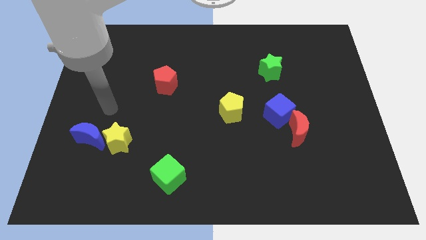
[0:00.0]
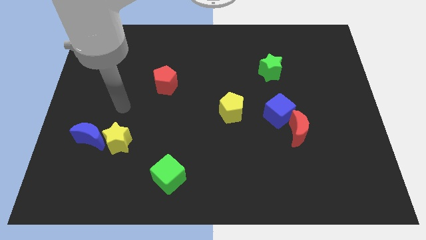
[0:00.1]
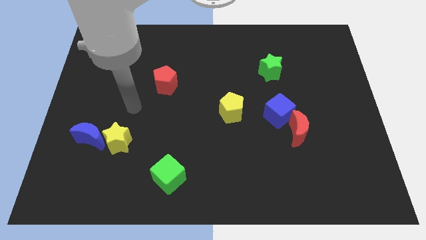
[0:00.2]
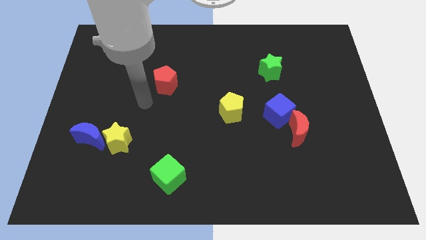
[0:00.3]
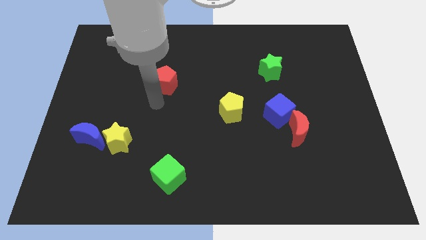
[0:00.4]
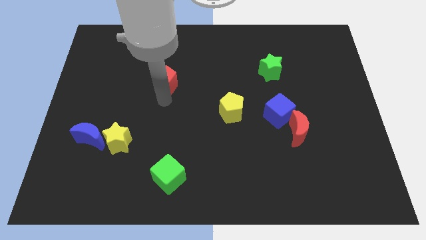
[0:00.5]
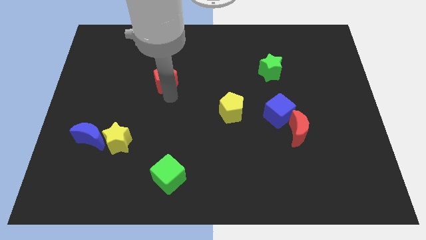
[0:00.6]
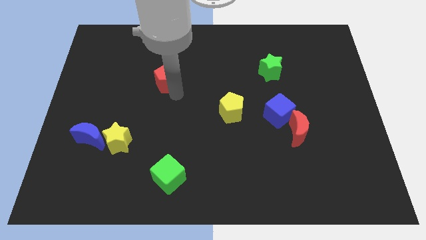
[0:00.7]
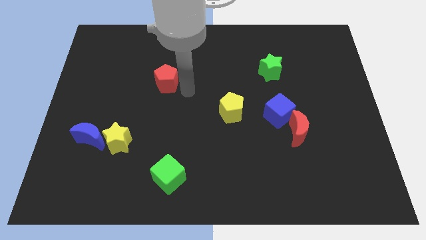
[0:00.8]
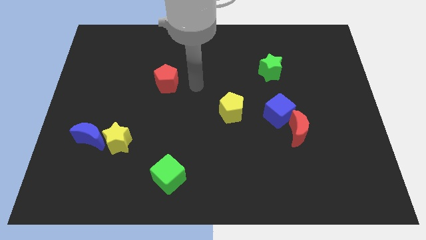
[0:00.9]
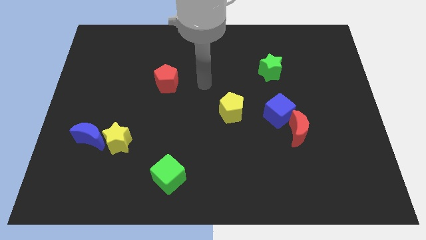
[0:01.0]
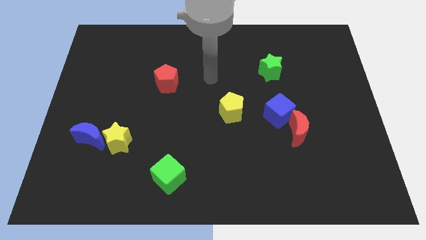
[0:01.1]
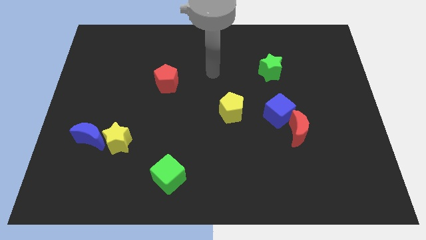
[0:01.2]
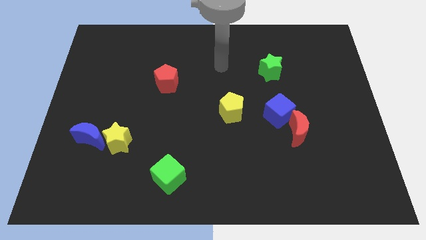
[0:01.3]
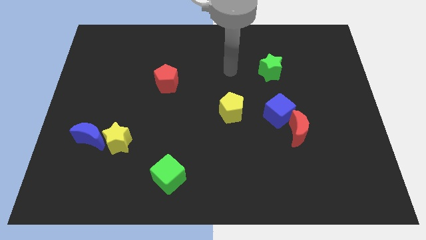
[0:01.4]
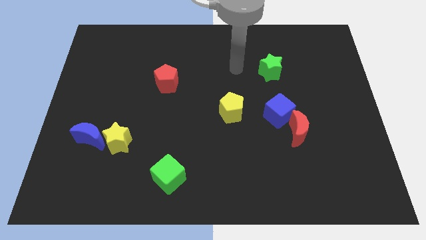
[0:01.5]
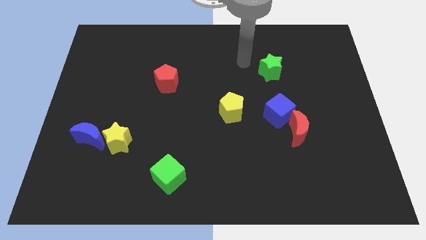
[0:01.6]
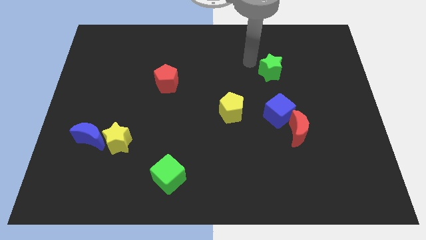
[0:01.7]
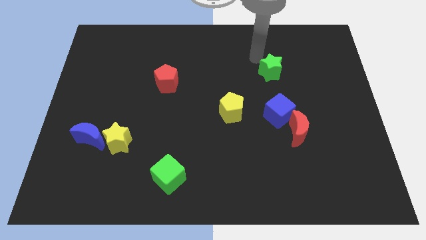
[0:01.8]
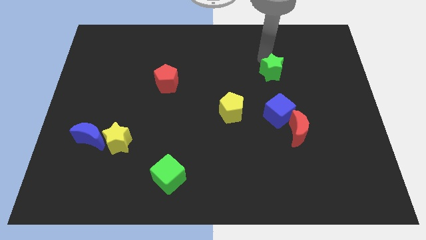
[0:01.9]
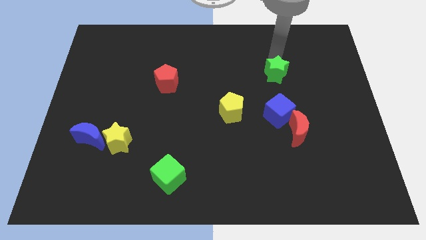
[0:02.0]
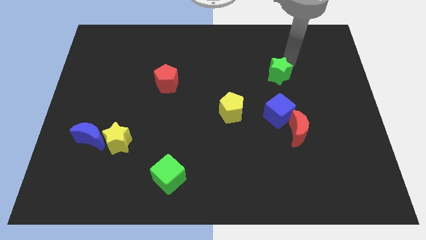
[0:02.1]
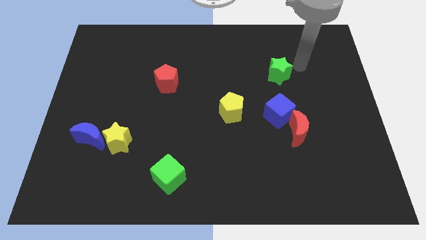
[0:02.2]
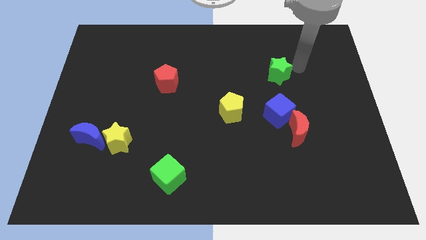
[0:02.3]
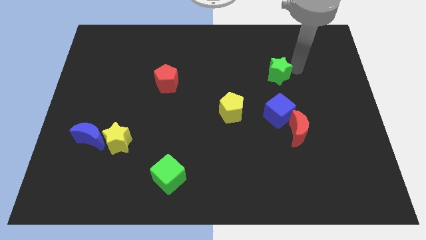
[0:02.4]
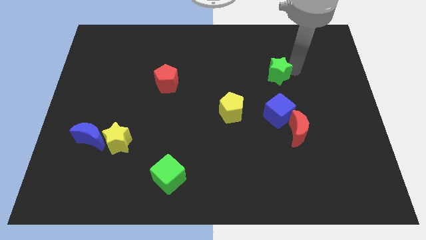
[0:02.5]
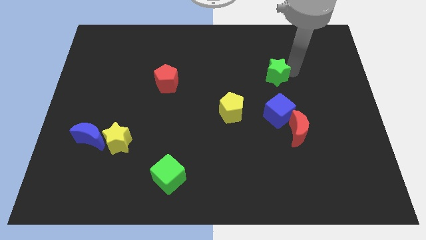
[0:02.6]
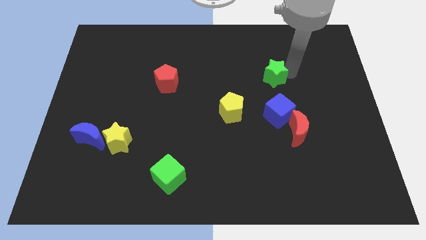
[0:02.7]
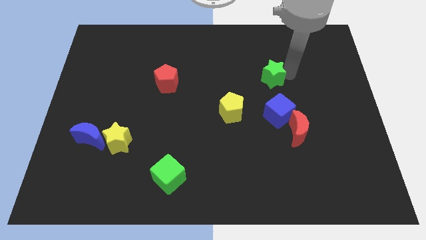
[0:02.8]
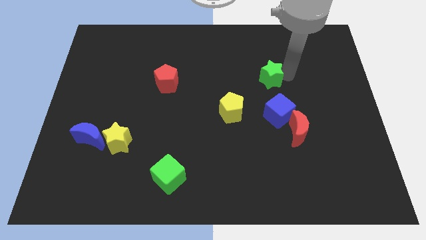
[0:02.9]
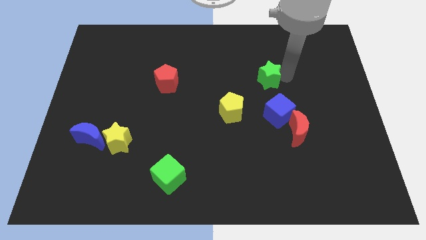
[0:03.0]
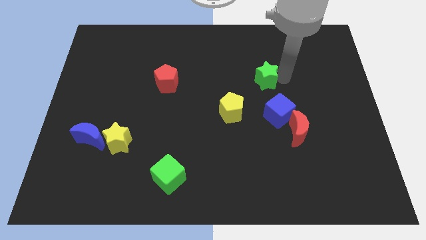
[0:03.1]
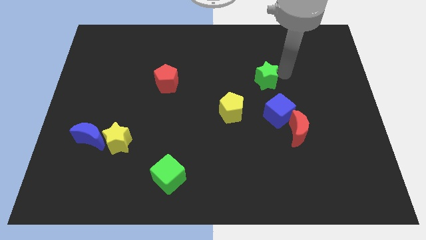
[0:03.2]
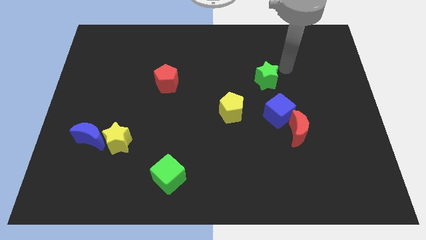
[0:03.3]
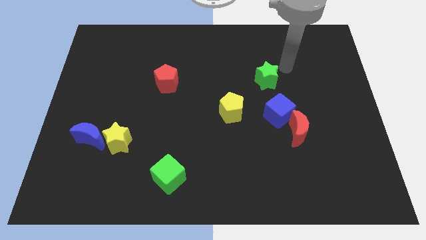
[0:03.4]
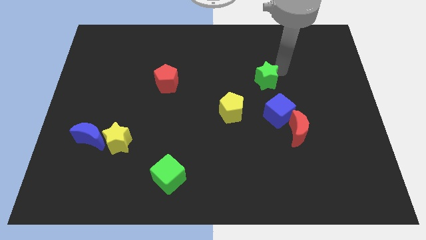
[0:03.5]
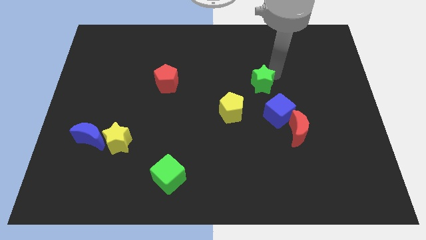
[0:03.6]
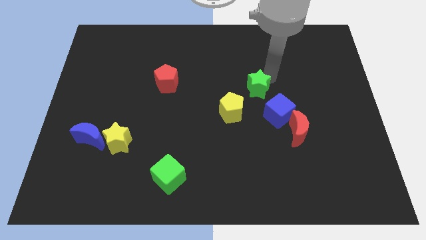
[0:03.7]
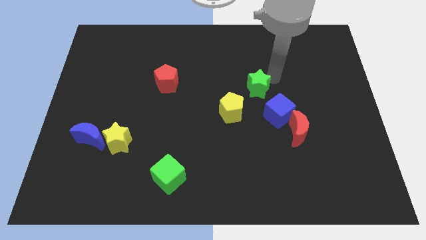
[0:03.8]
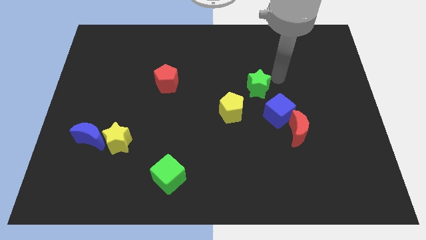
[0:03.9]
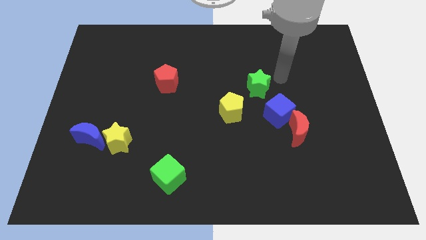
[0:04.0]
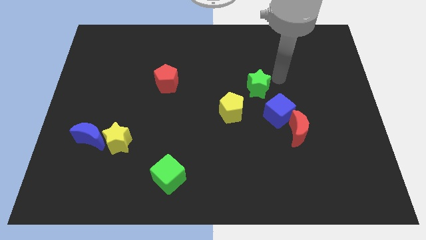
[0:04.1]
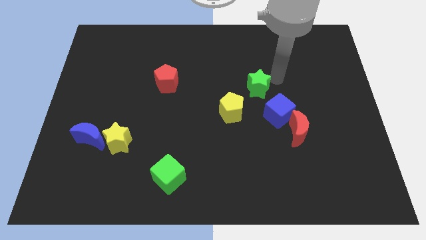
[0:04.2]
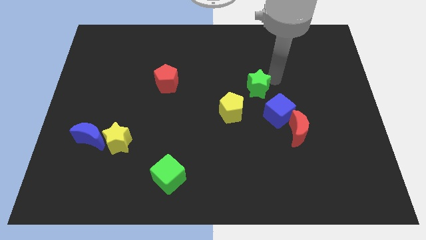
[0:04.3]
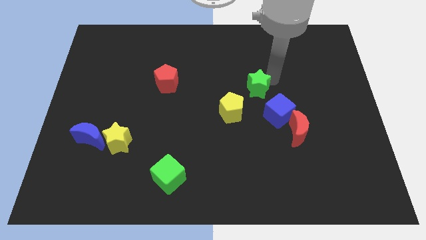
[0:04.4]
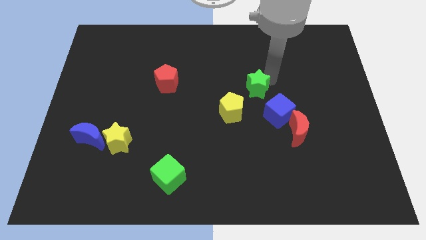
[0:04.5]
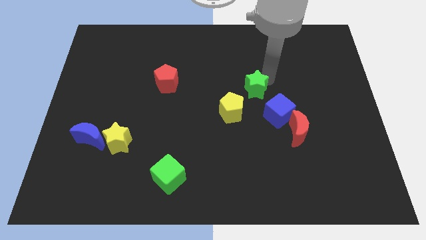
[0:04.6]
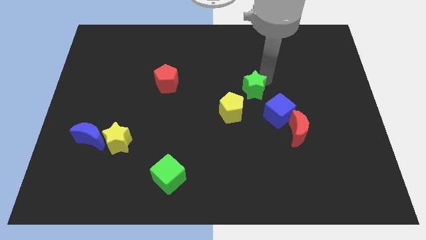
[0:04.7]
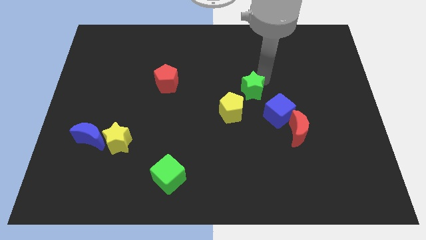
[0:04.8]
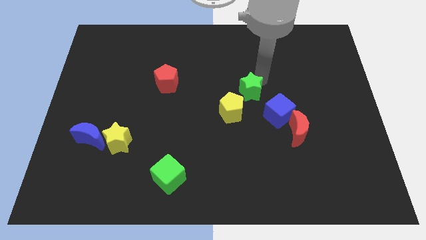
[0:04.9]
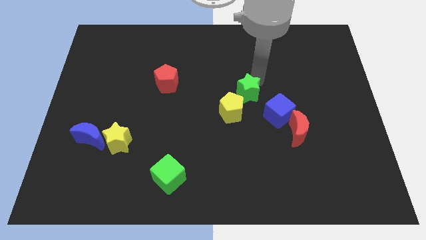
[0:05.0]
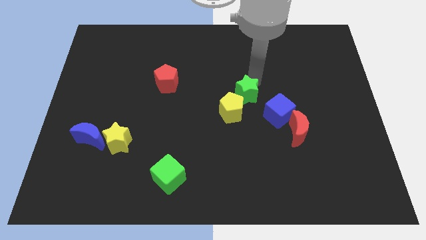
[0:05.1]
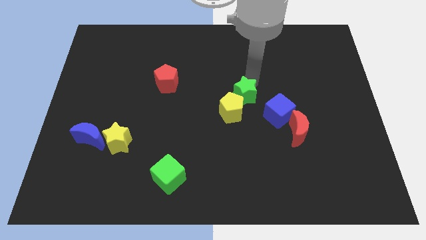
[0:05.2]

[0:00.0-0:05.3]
move the green star close to the yellow pentagon

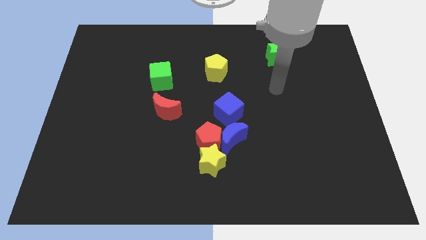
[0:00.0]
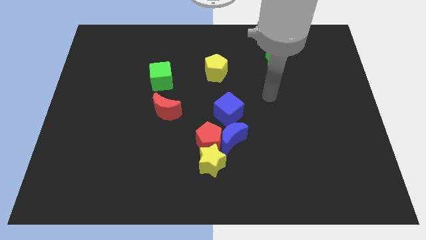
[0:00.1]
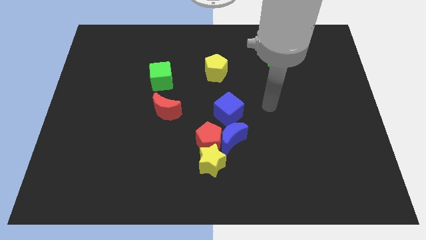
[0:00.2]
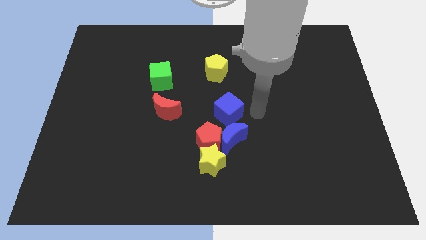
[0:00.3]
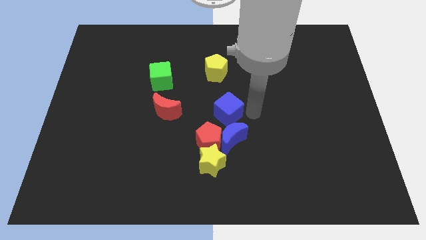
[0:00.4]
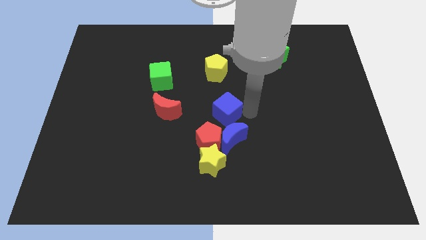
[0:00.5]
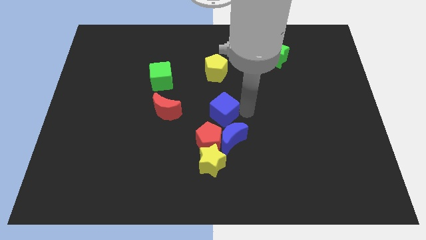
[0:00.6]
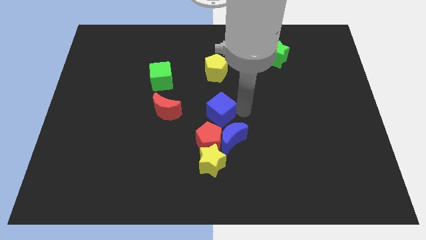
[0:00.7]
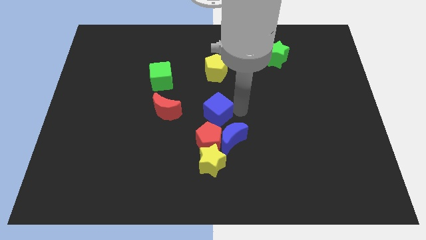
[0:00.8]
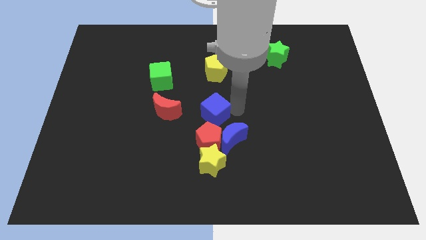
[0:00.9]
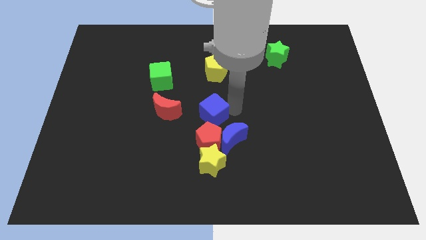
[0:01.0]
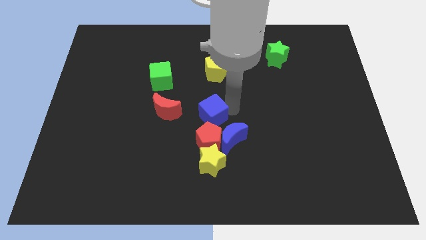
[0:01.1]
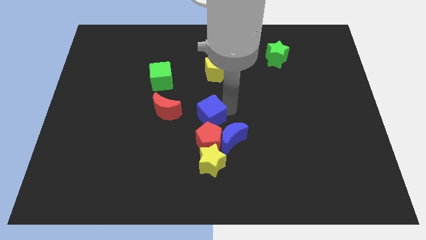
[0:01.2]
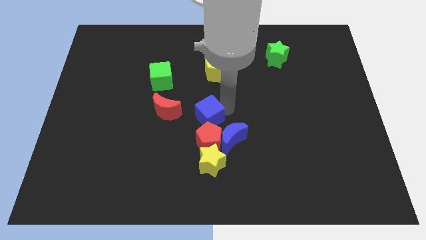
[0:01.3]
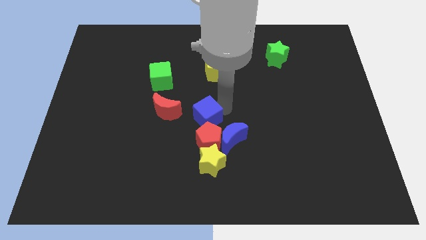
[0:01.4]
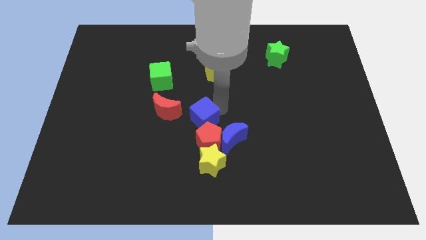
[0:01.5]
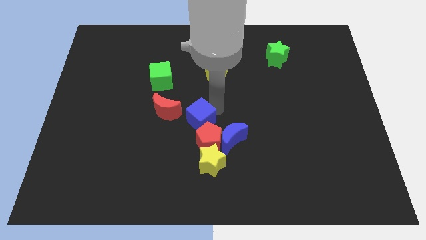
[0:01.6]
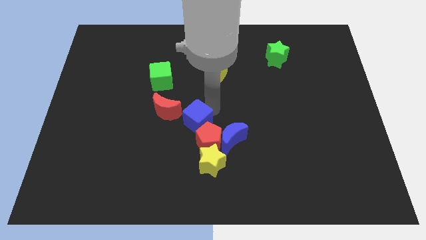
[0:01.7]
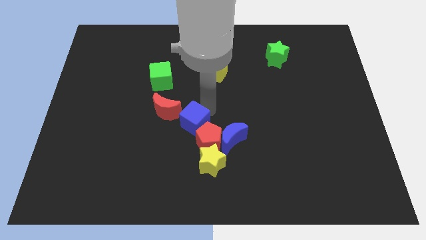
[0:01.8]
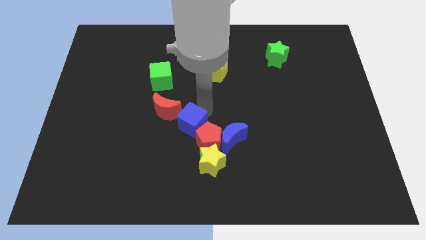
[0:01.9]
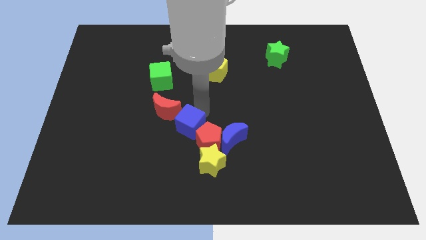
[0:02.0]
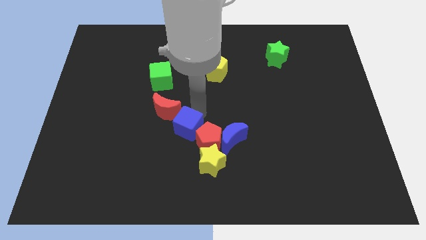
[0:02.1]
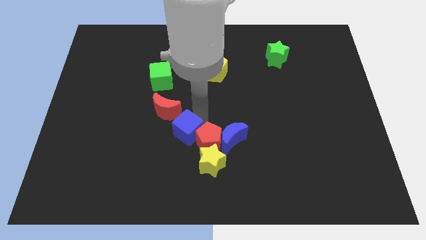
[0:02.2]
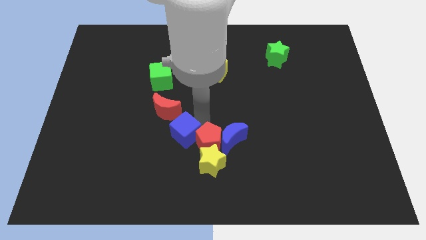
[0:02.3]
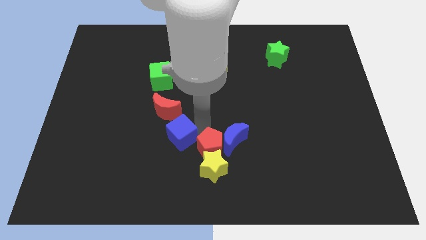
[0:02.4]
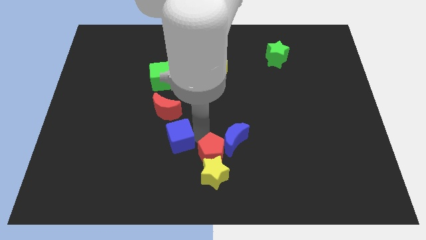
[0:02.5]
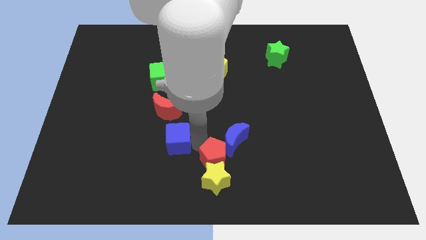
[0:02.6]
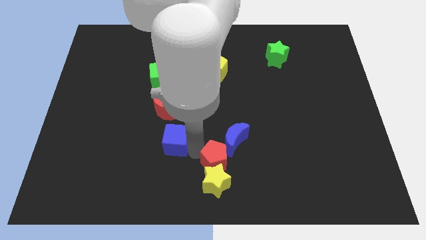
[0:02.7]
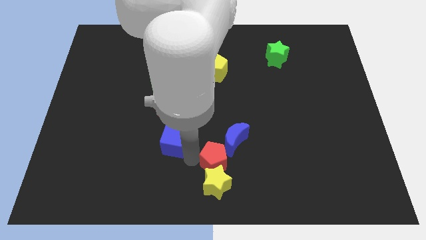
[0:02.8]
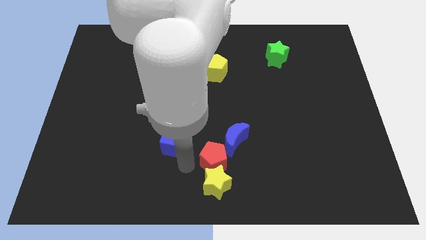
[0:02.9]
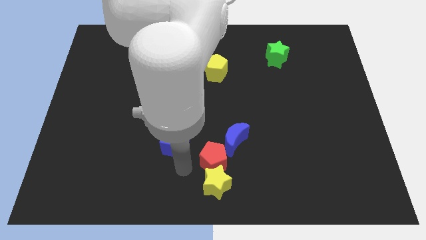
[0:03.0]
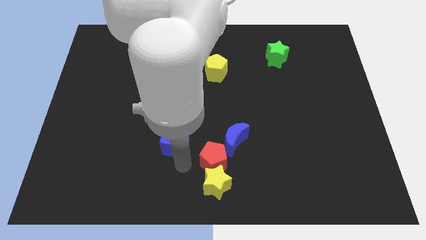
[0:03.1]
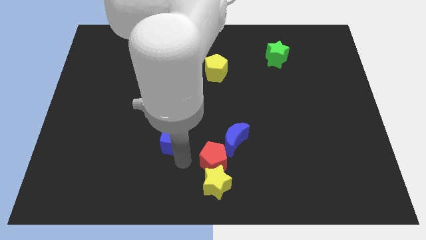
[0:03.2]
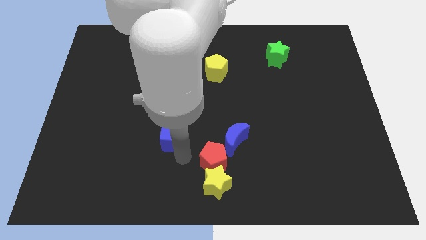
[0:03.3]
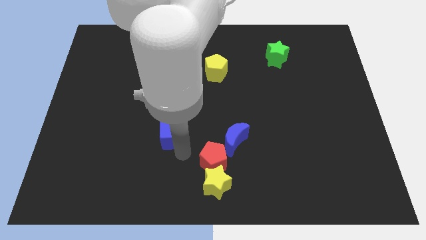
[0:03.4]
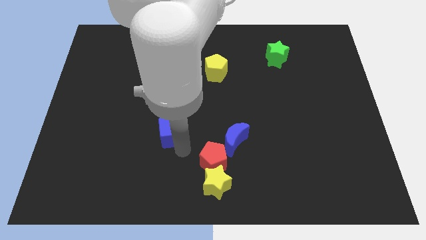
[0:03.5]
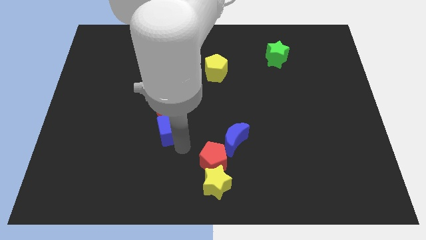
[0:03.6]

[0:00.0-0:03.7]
slide the blue cube to the red moon
